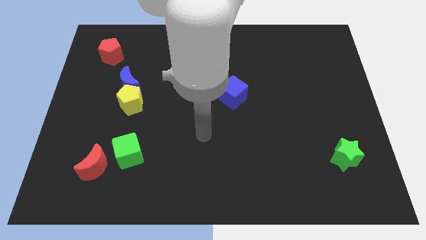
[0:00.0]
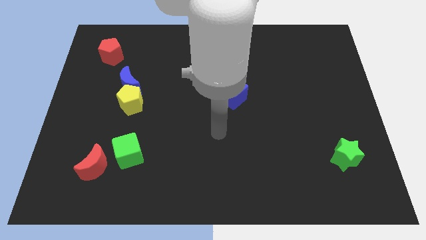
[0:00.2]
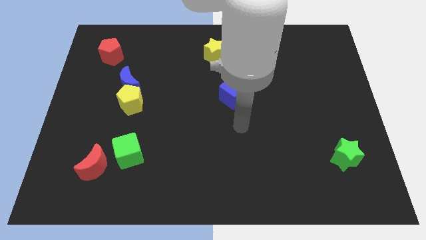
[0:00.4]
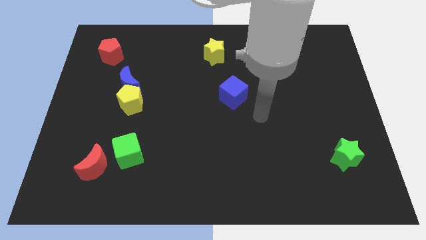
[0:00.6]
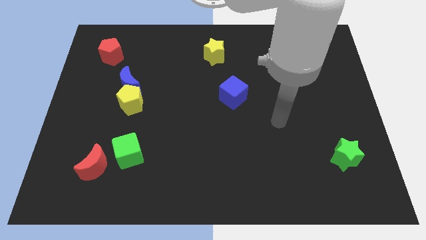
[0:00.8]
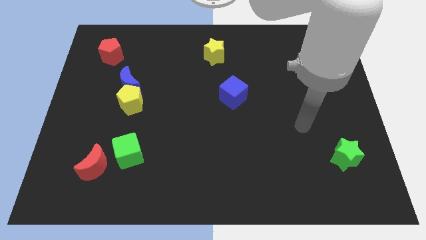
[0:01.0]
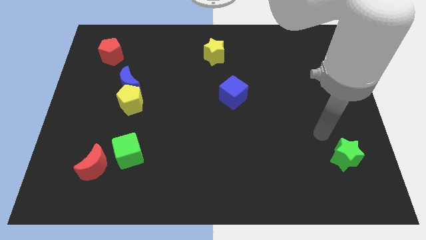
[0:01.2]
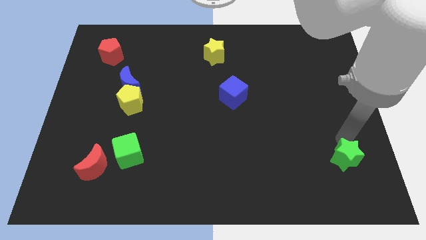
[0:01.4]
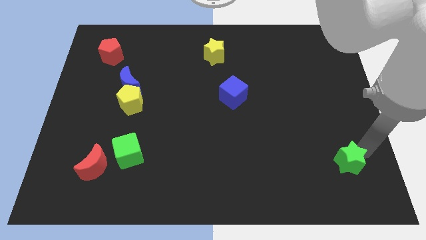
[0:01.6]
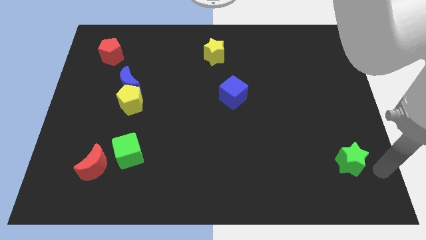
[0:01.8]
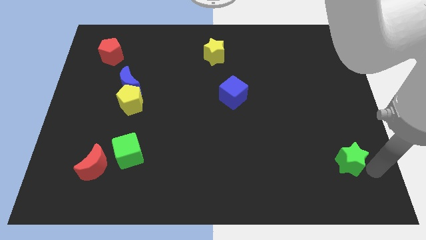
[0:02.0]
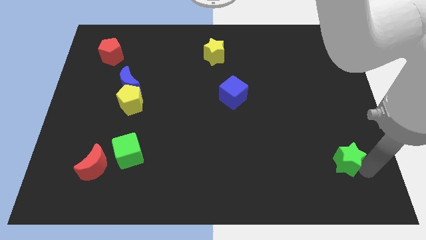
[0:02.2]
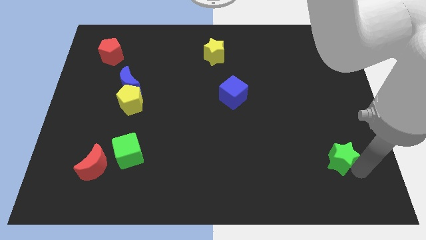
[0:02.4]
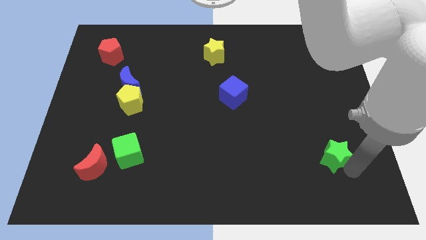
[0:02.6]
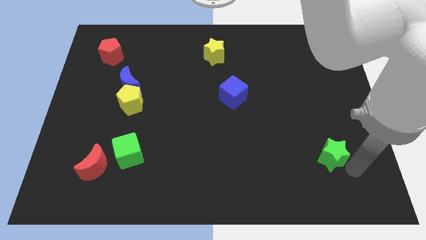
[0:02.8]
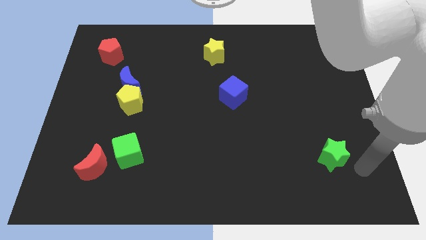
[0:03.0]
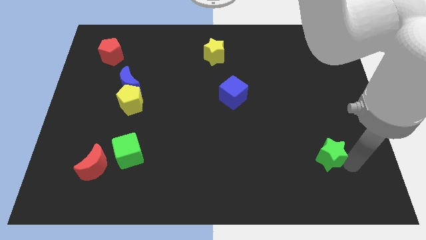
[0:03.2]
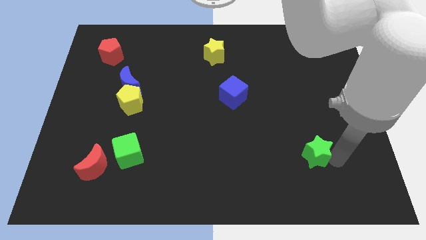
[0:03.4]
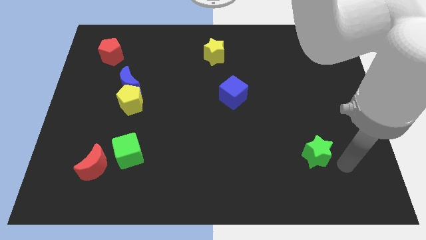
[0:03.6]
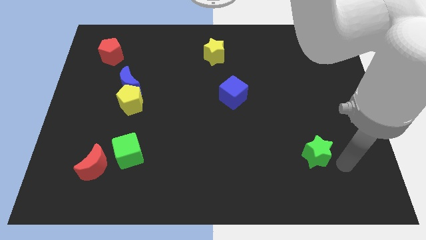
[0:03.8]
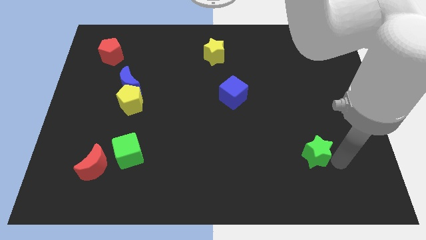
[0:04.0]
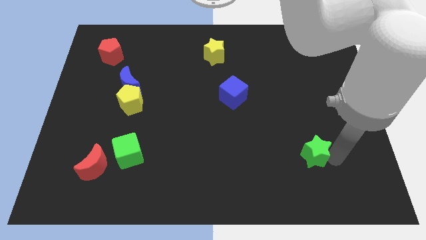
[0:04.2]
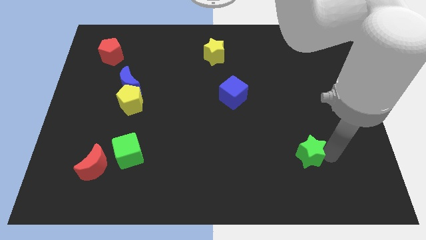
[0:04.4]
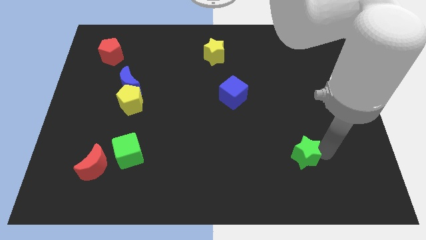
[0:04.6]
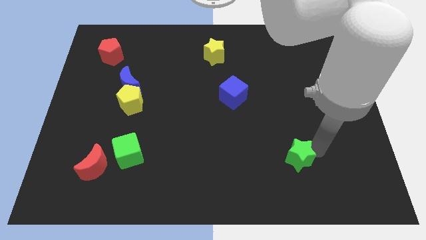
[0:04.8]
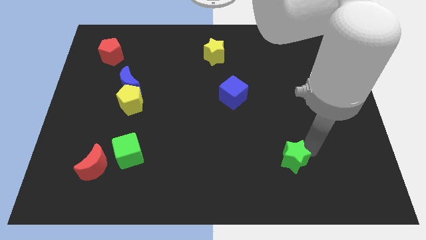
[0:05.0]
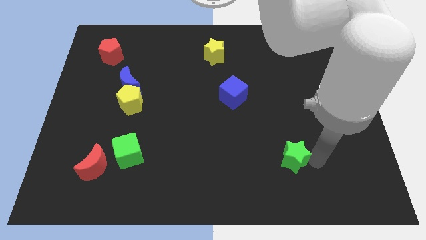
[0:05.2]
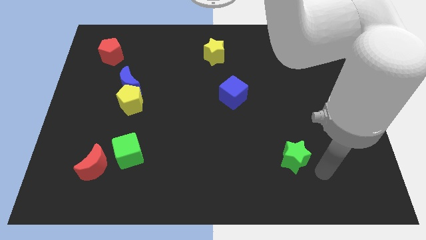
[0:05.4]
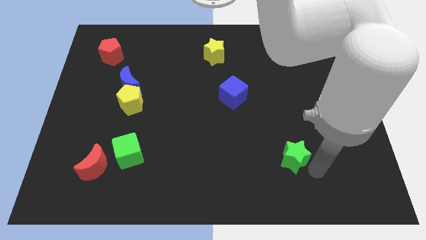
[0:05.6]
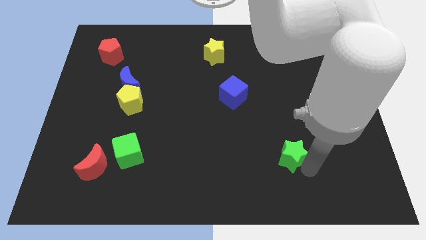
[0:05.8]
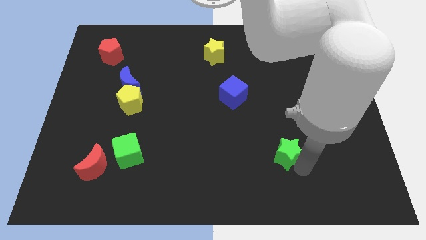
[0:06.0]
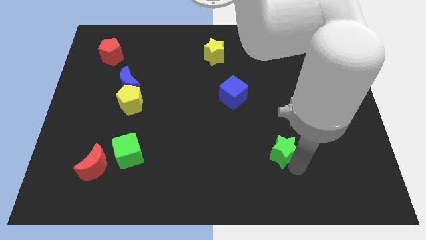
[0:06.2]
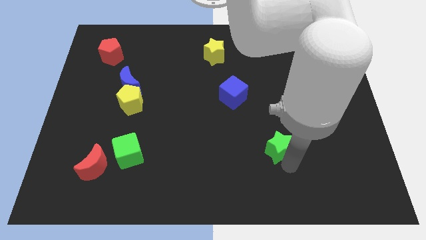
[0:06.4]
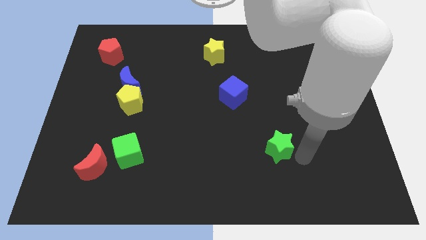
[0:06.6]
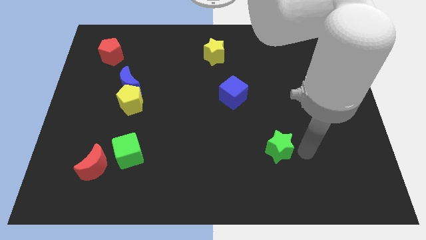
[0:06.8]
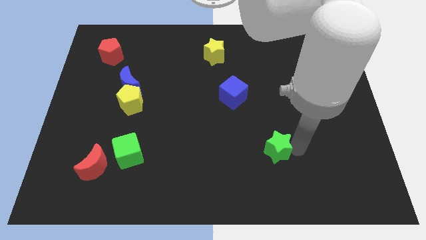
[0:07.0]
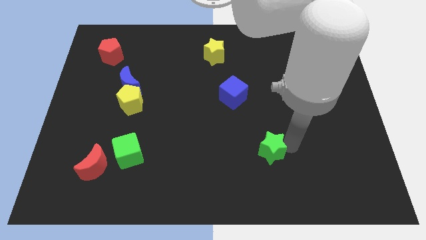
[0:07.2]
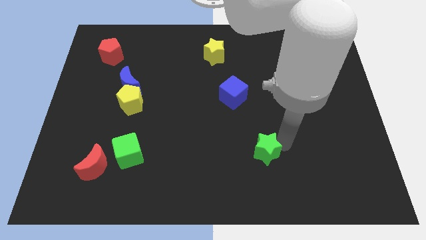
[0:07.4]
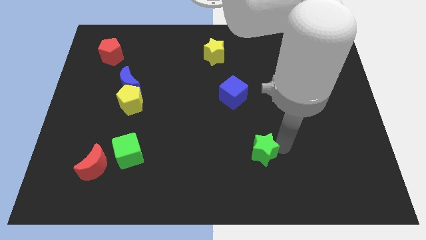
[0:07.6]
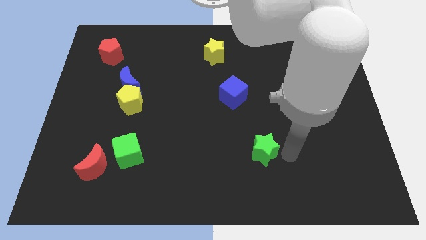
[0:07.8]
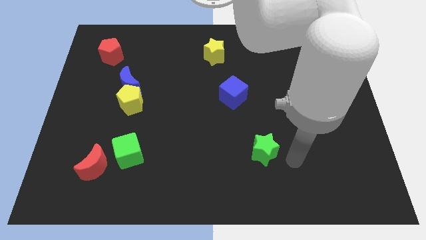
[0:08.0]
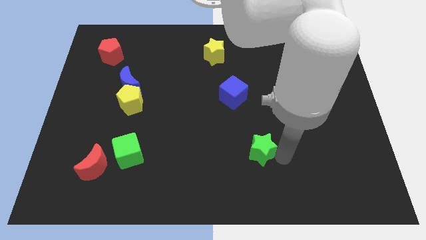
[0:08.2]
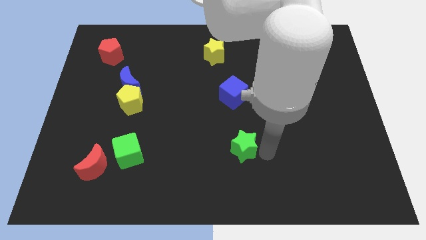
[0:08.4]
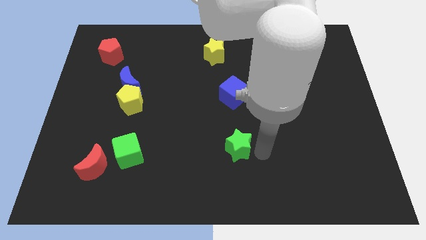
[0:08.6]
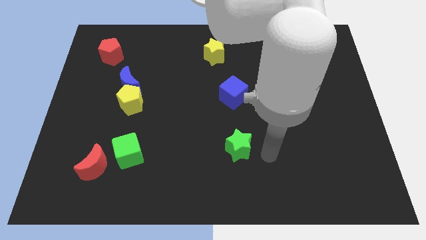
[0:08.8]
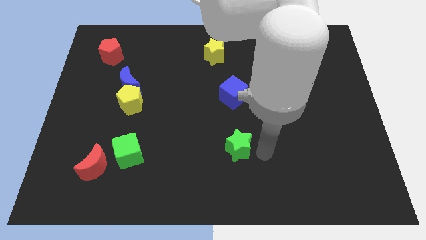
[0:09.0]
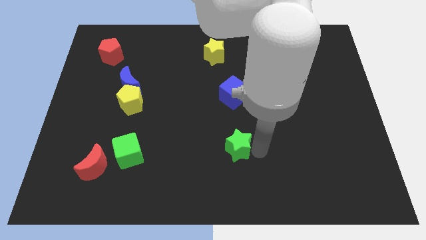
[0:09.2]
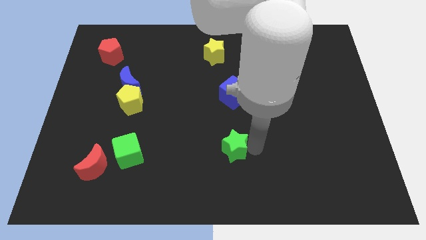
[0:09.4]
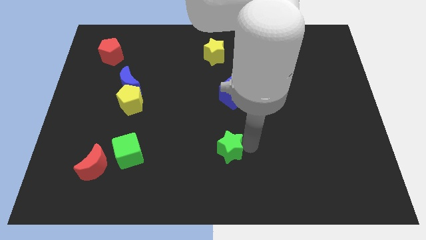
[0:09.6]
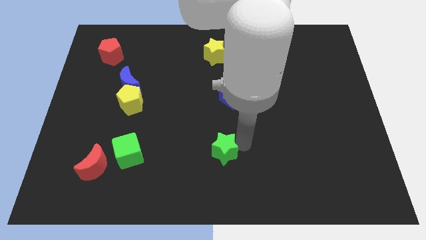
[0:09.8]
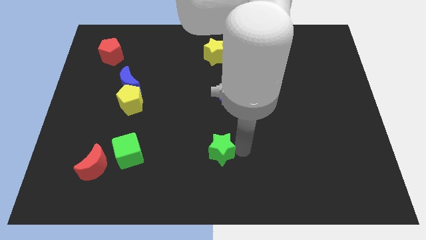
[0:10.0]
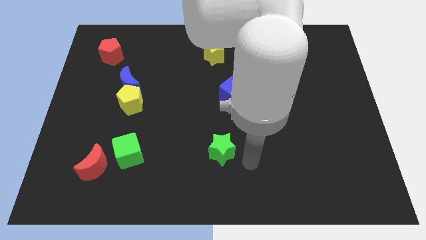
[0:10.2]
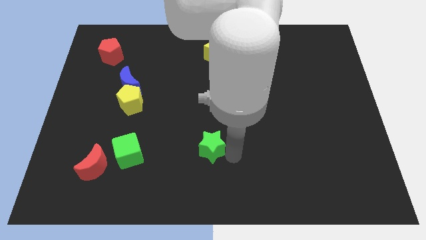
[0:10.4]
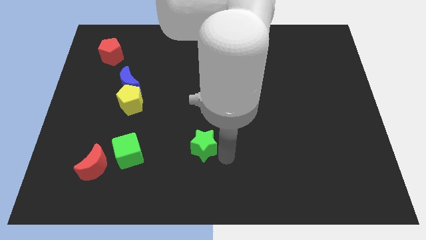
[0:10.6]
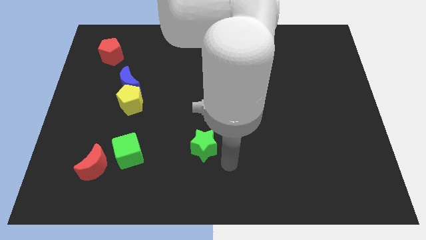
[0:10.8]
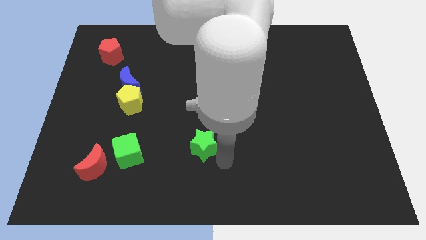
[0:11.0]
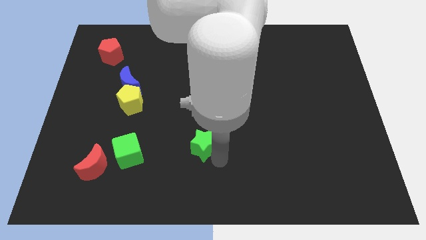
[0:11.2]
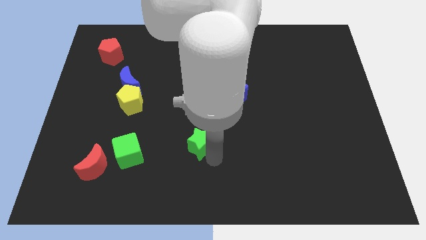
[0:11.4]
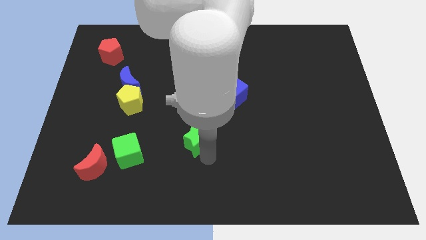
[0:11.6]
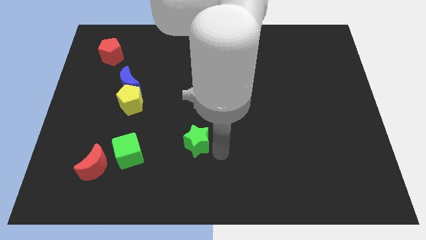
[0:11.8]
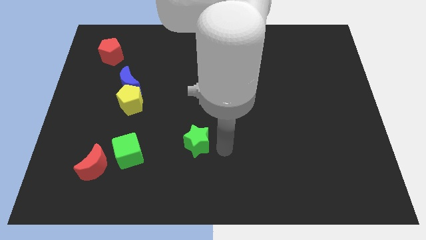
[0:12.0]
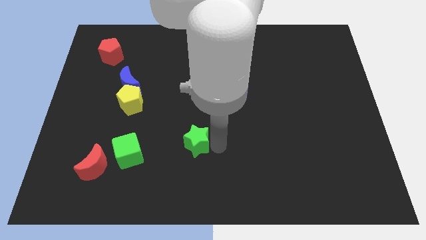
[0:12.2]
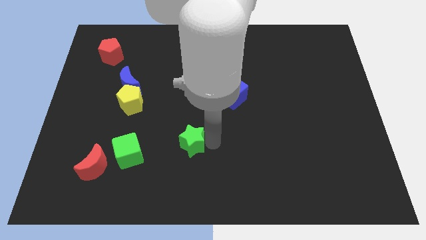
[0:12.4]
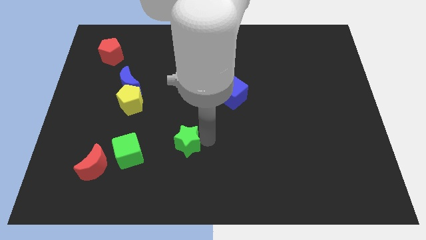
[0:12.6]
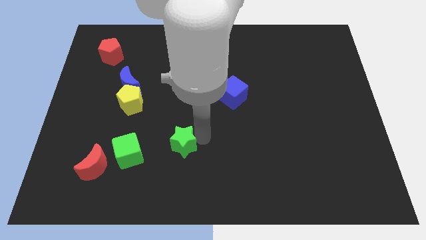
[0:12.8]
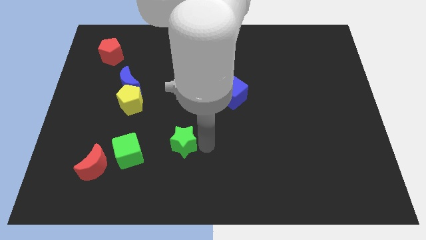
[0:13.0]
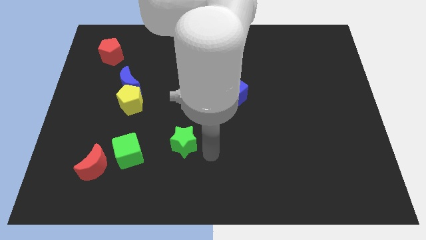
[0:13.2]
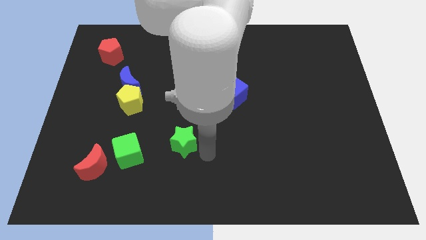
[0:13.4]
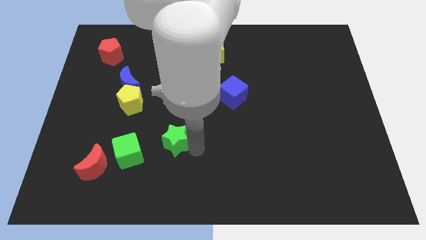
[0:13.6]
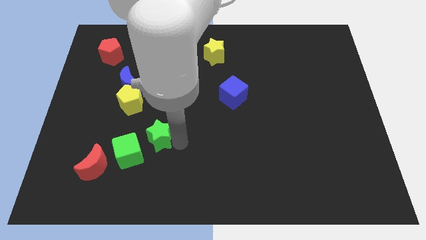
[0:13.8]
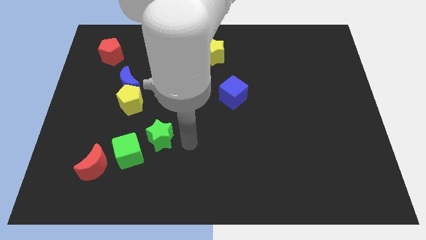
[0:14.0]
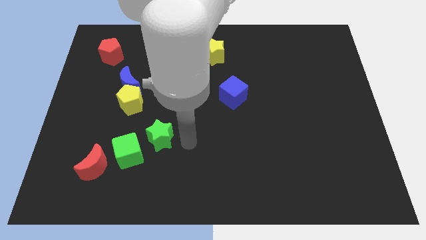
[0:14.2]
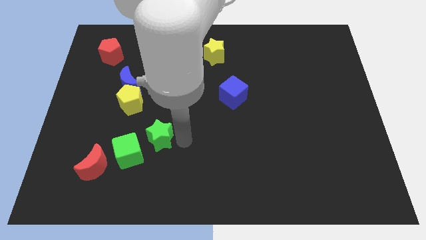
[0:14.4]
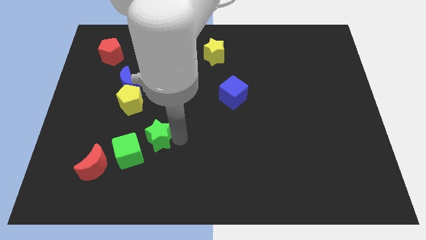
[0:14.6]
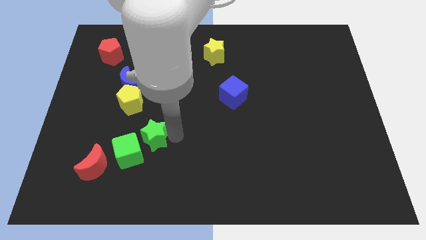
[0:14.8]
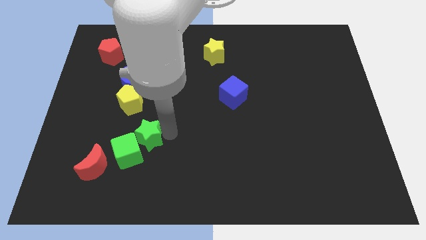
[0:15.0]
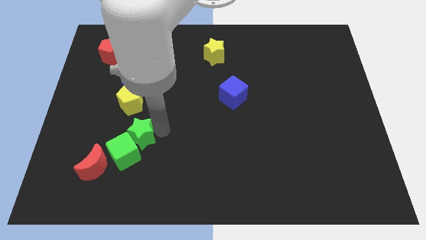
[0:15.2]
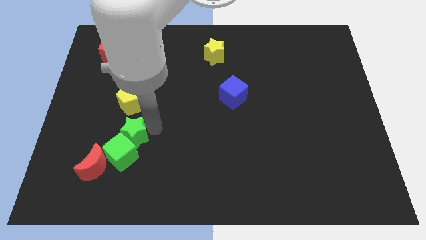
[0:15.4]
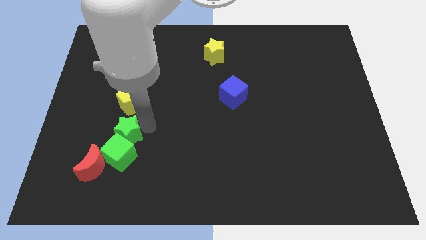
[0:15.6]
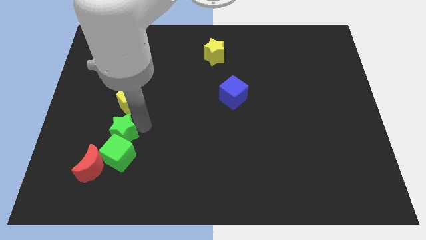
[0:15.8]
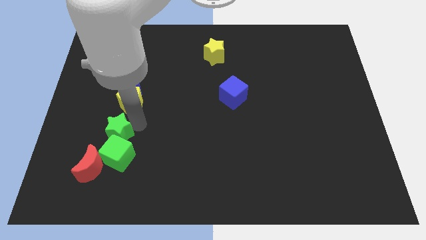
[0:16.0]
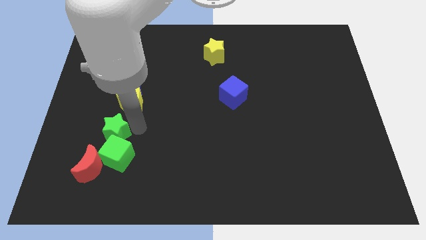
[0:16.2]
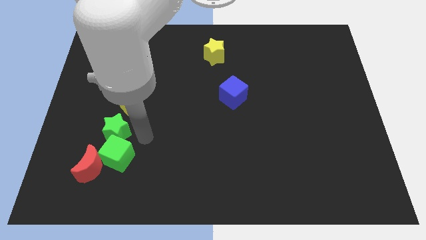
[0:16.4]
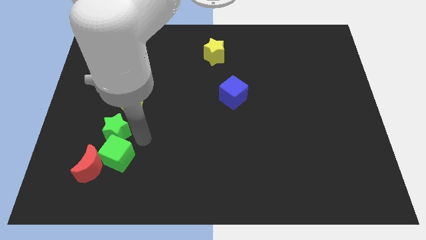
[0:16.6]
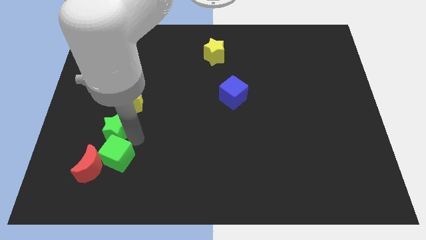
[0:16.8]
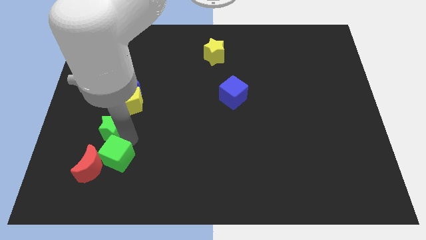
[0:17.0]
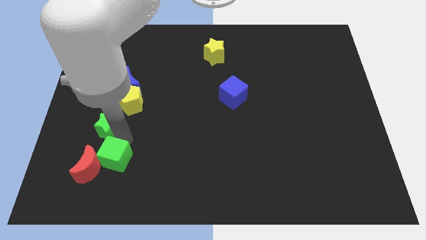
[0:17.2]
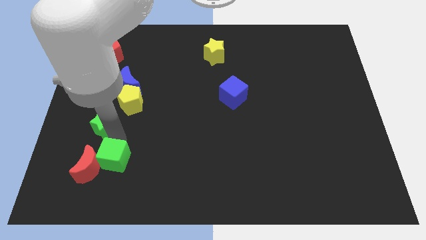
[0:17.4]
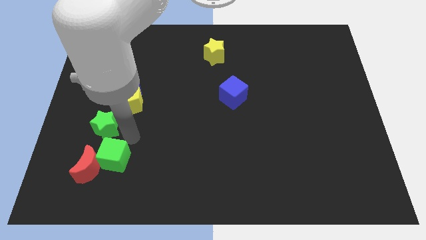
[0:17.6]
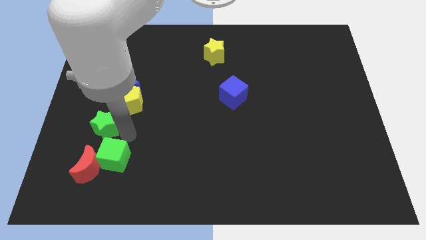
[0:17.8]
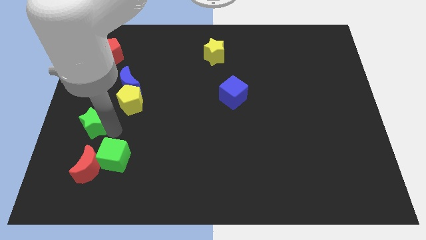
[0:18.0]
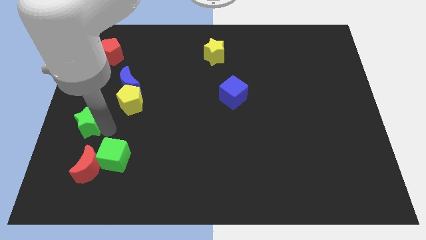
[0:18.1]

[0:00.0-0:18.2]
push the green star to the left side
